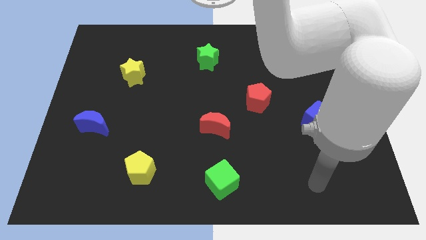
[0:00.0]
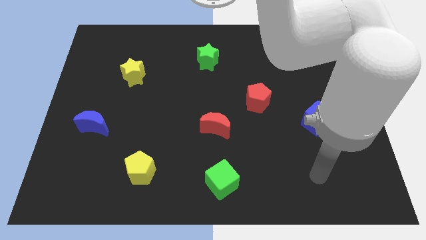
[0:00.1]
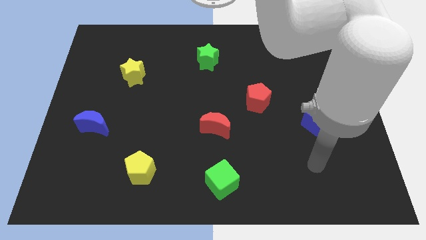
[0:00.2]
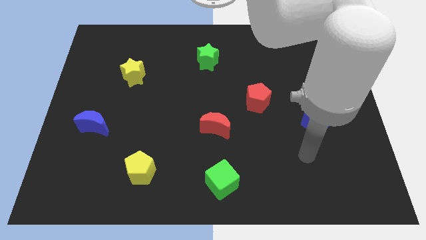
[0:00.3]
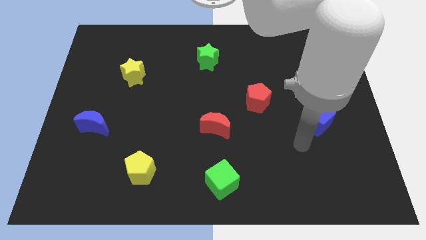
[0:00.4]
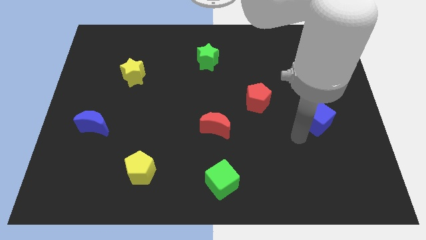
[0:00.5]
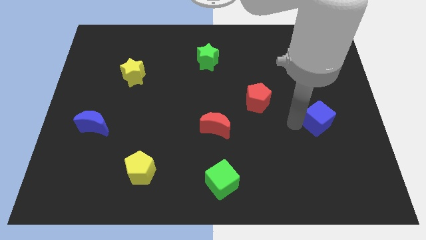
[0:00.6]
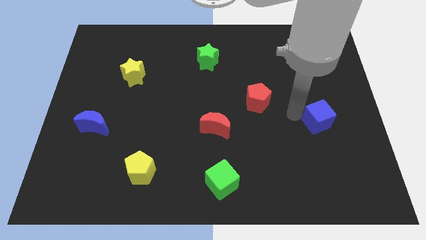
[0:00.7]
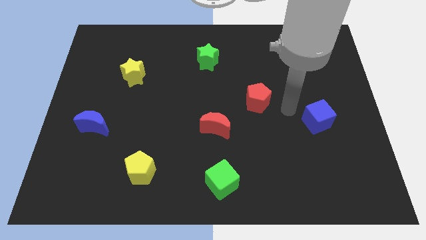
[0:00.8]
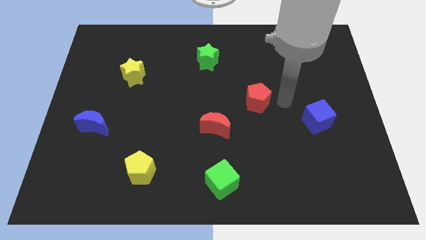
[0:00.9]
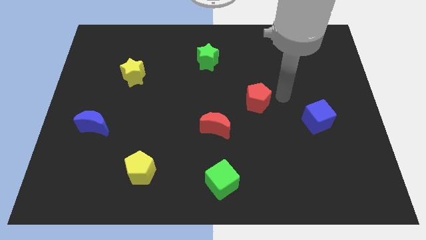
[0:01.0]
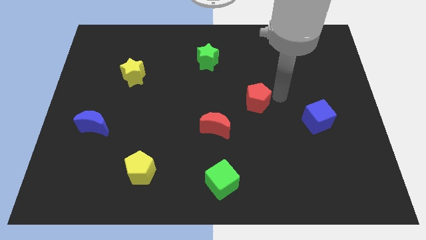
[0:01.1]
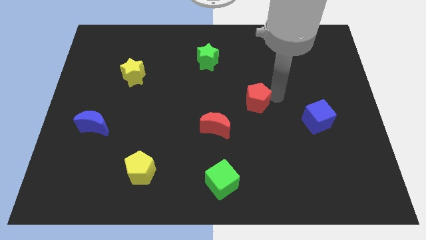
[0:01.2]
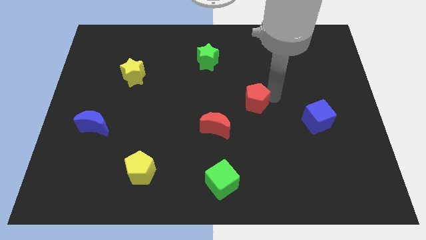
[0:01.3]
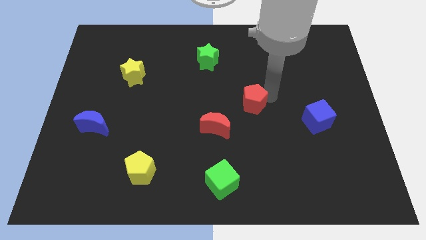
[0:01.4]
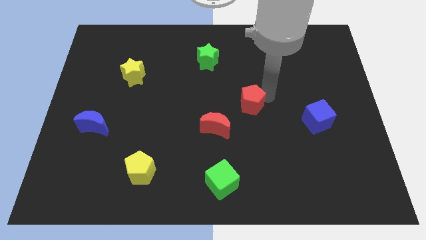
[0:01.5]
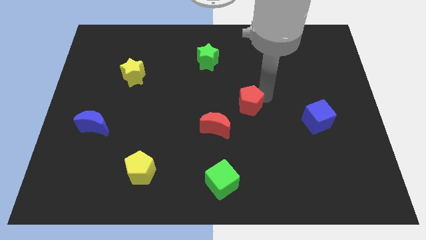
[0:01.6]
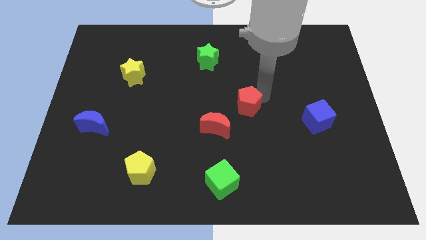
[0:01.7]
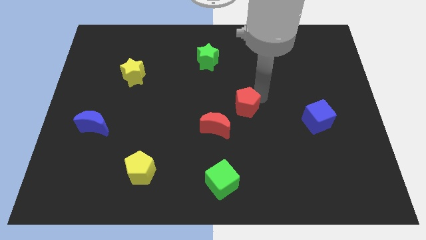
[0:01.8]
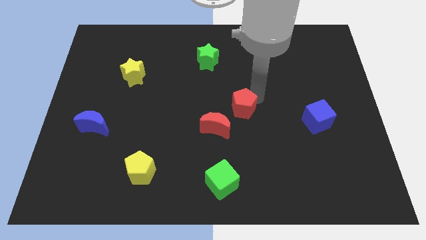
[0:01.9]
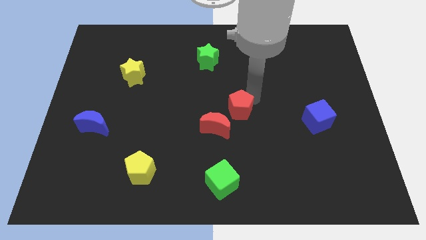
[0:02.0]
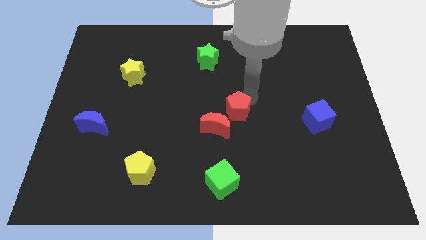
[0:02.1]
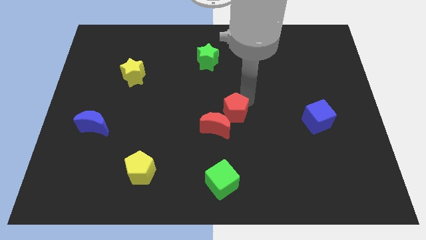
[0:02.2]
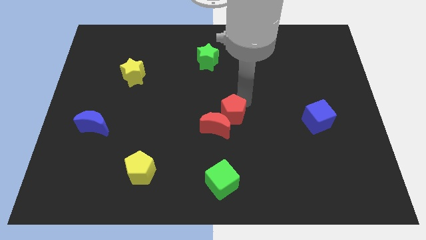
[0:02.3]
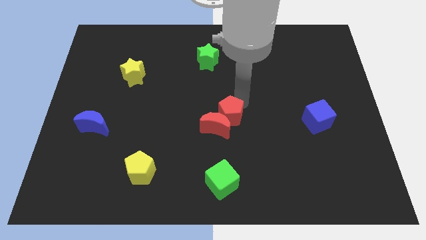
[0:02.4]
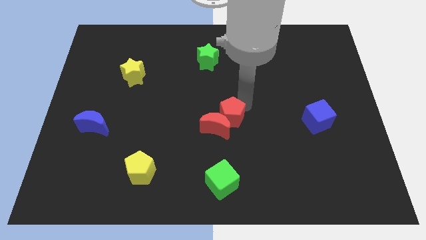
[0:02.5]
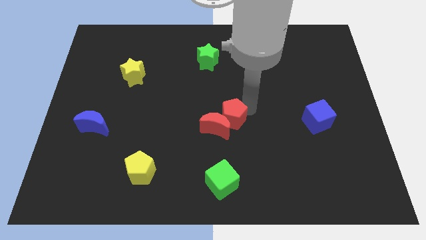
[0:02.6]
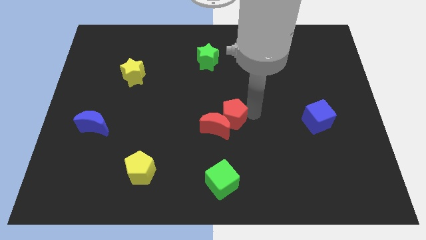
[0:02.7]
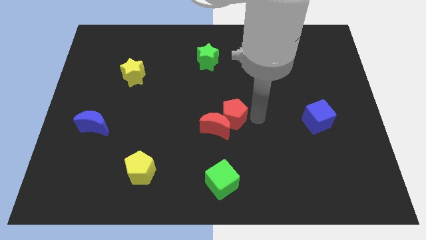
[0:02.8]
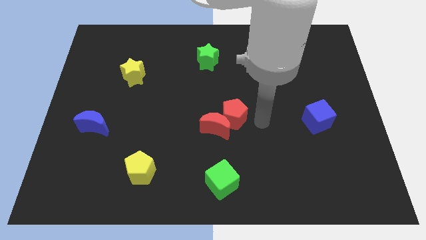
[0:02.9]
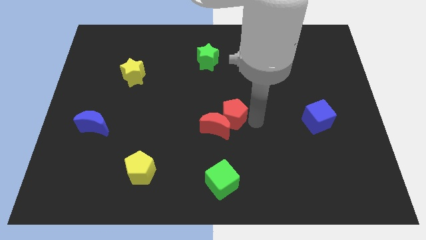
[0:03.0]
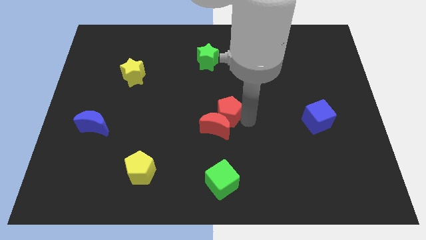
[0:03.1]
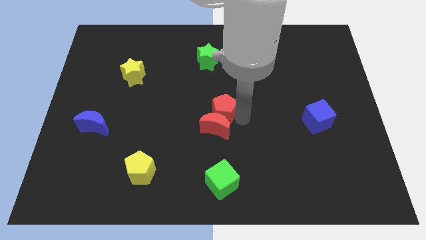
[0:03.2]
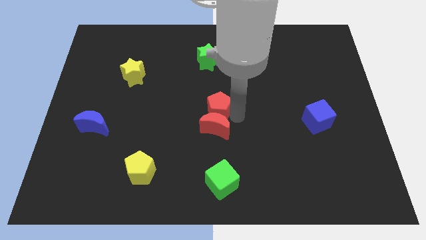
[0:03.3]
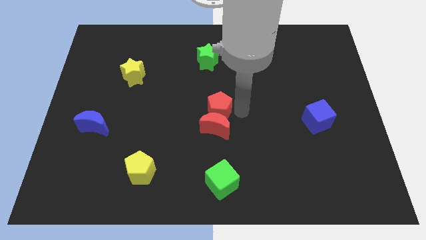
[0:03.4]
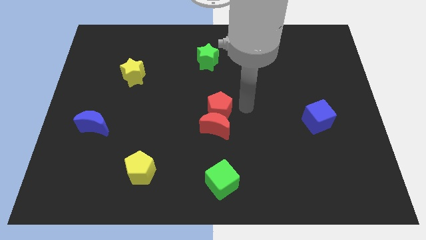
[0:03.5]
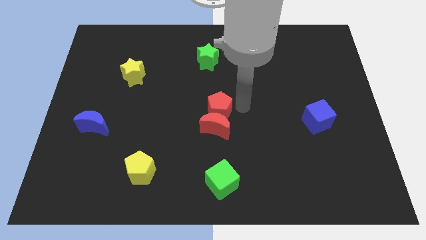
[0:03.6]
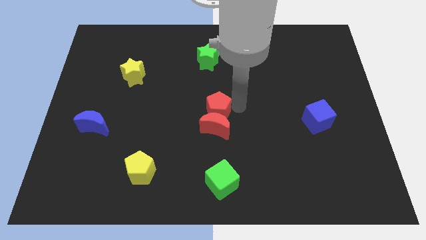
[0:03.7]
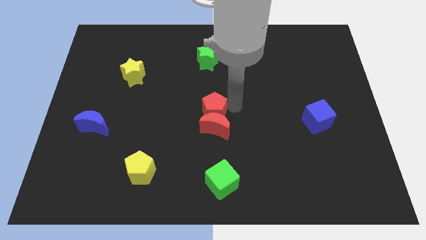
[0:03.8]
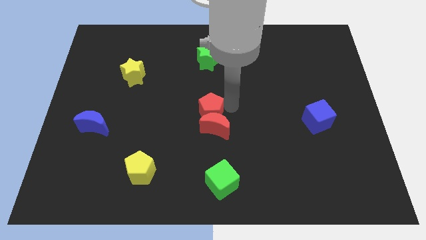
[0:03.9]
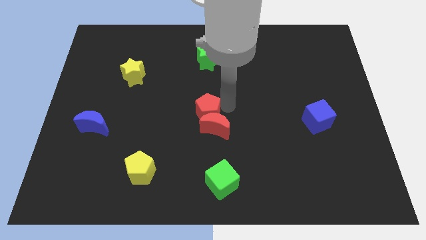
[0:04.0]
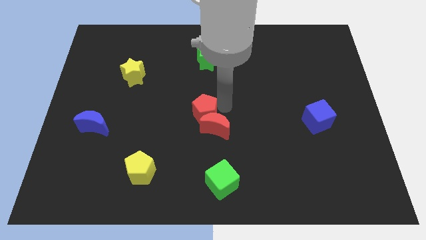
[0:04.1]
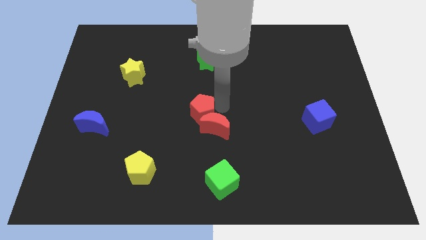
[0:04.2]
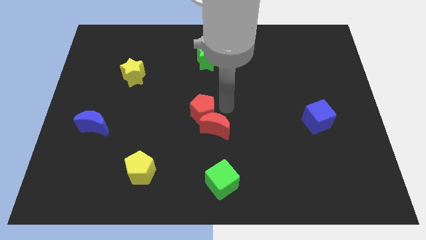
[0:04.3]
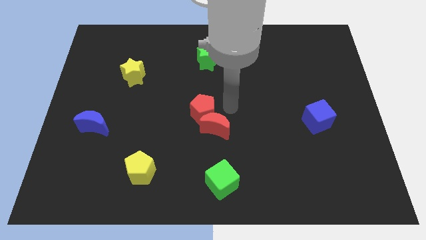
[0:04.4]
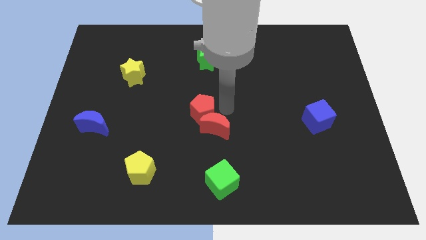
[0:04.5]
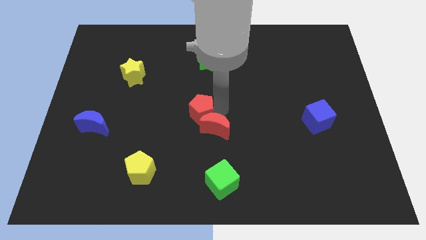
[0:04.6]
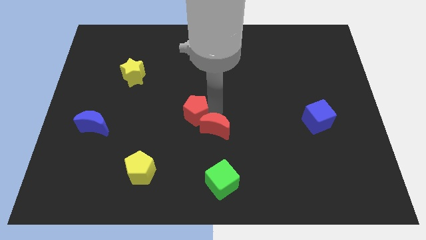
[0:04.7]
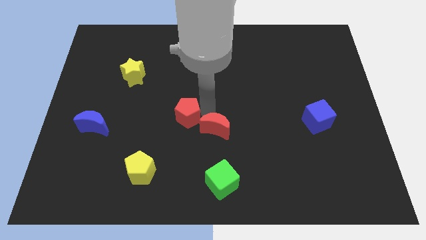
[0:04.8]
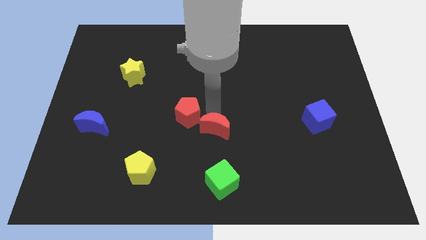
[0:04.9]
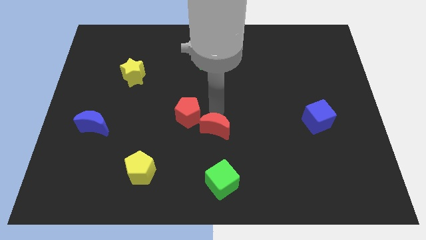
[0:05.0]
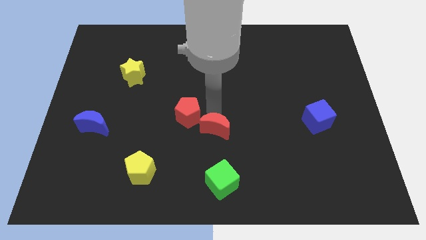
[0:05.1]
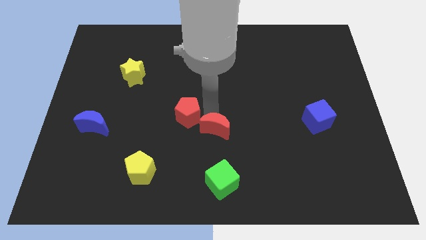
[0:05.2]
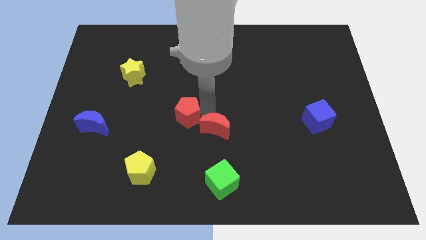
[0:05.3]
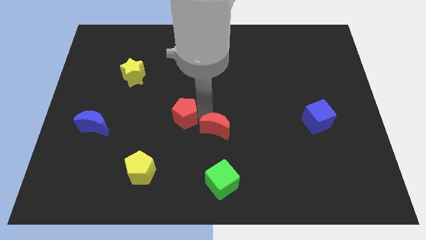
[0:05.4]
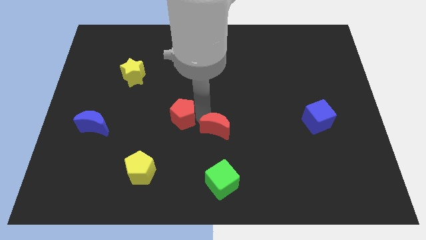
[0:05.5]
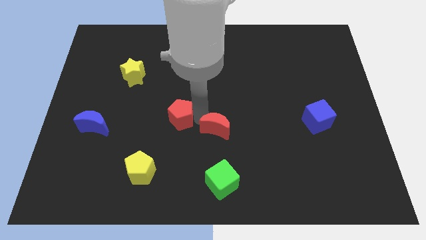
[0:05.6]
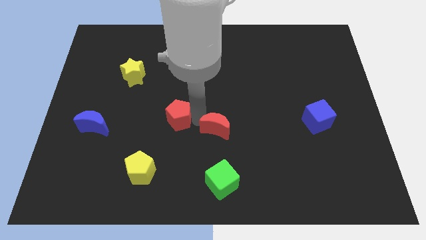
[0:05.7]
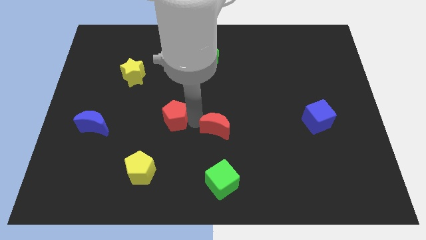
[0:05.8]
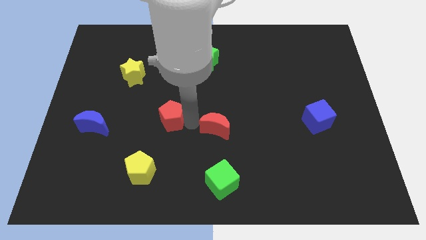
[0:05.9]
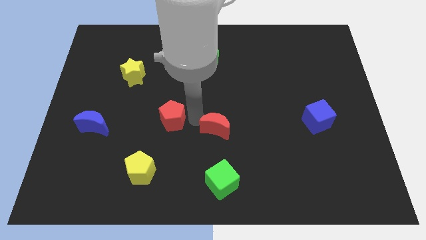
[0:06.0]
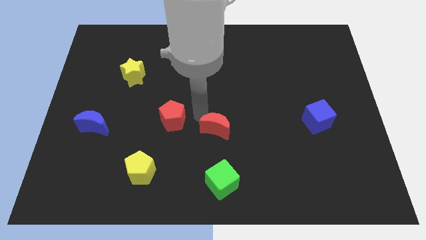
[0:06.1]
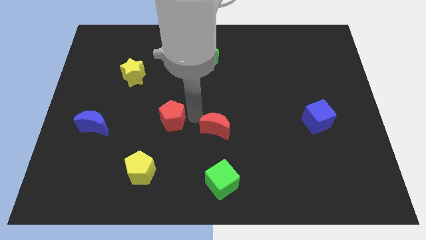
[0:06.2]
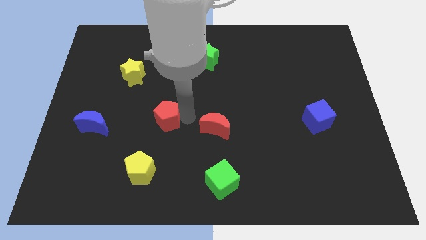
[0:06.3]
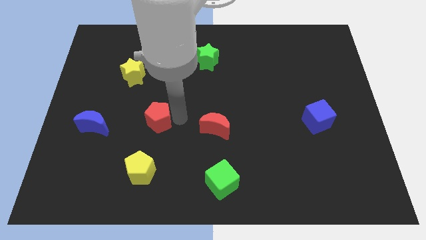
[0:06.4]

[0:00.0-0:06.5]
move the red pentagon to the right side of the blue moon
